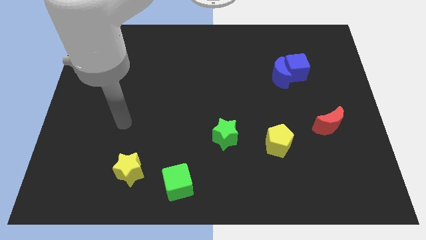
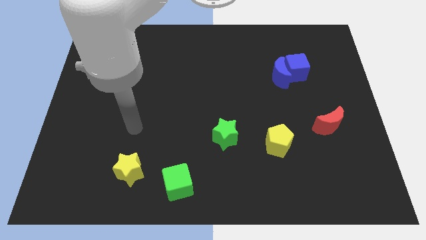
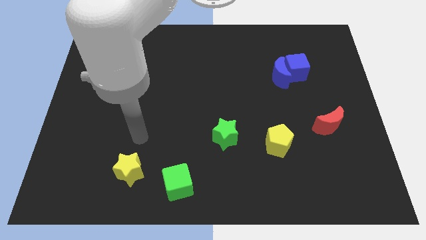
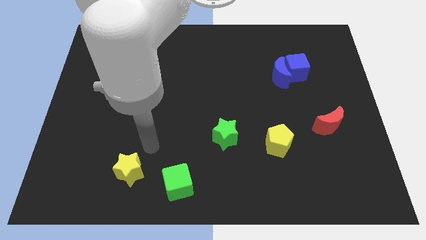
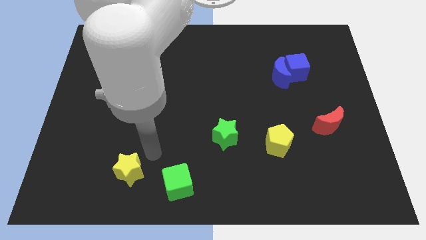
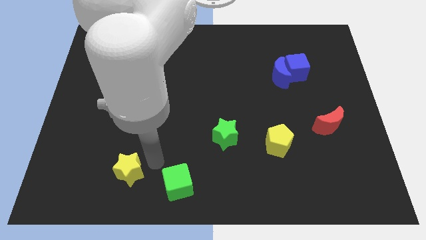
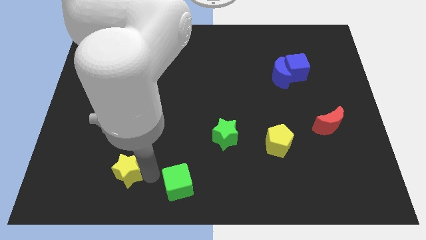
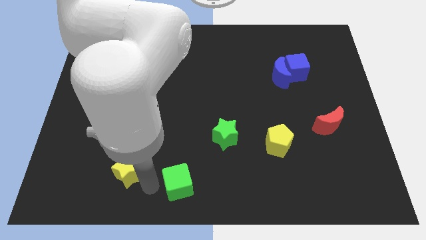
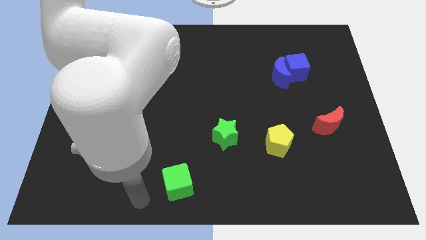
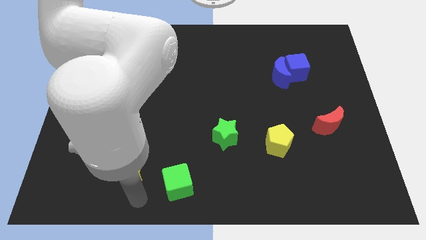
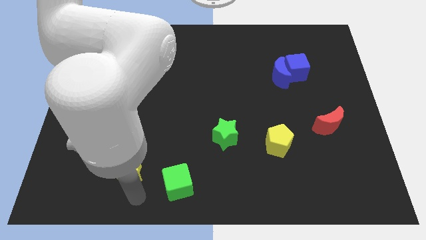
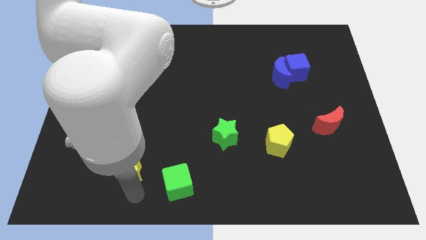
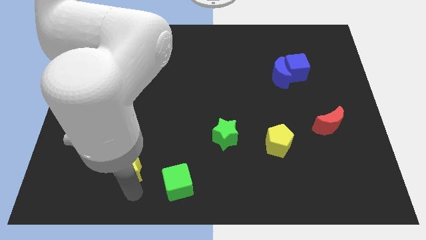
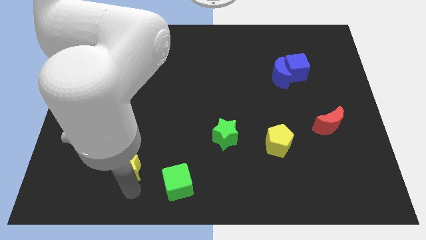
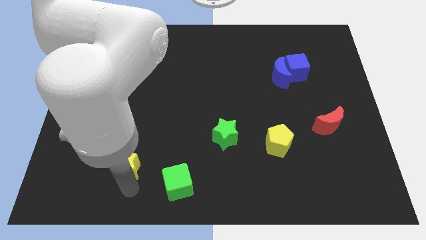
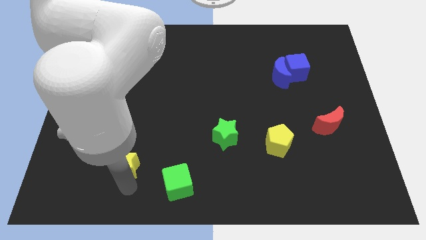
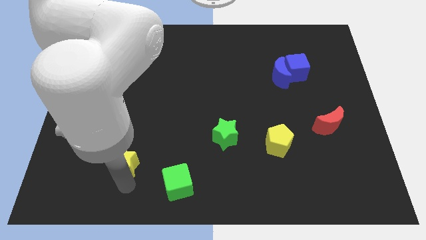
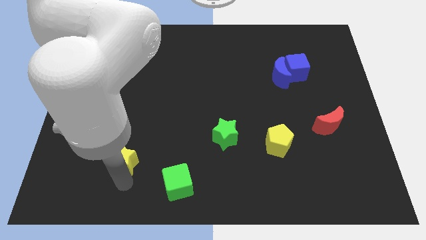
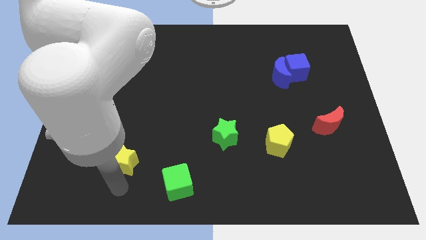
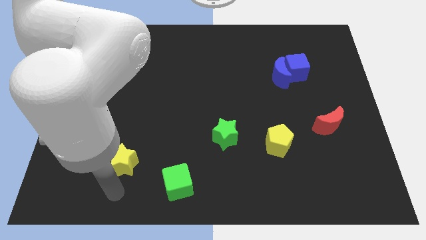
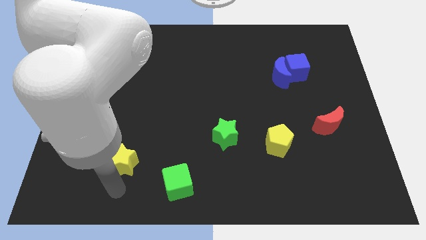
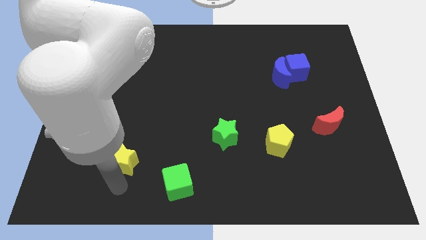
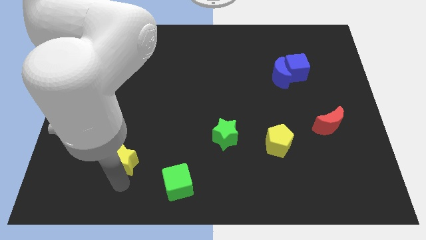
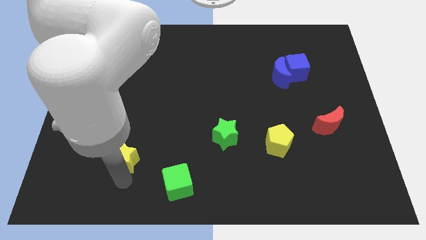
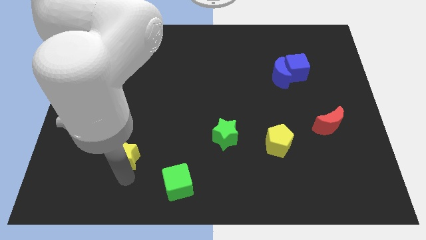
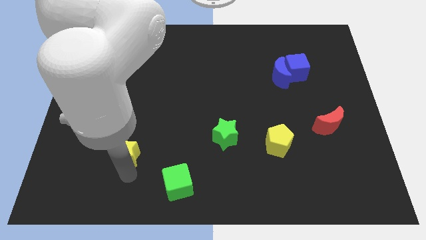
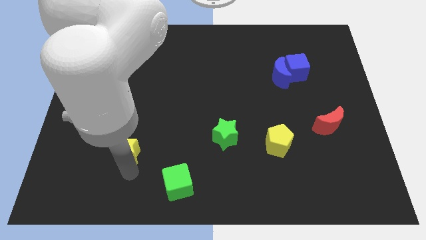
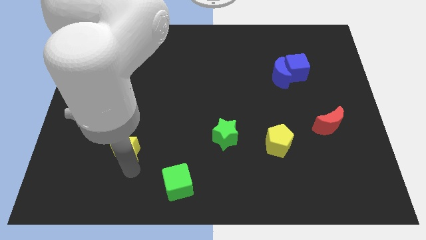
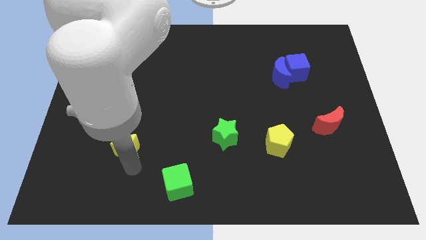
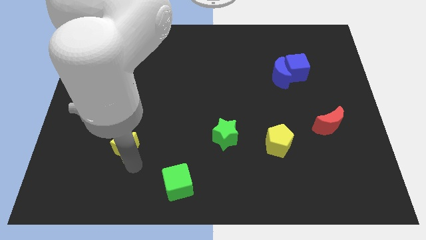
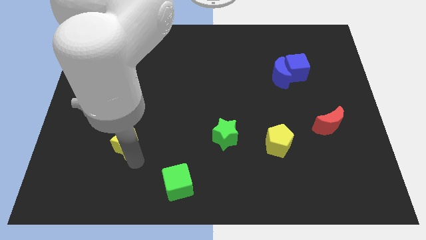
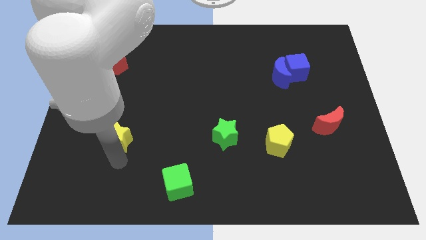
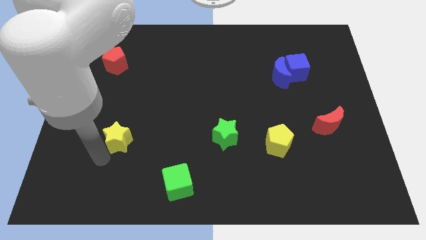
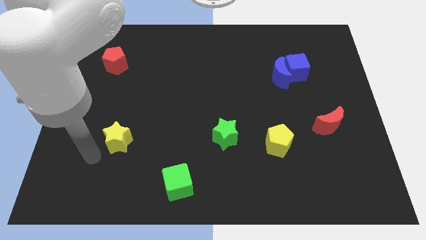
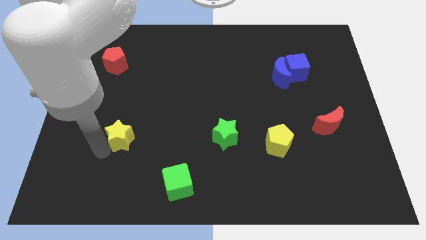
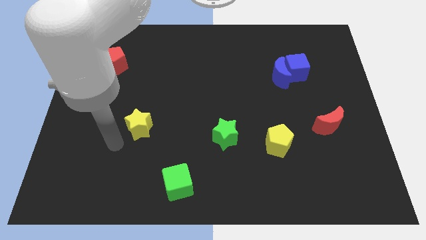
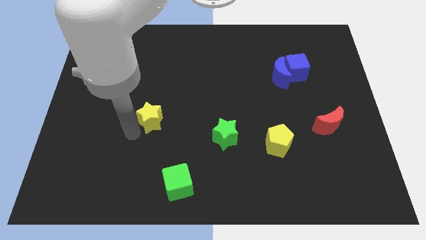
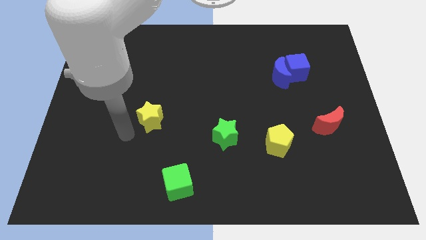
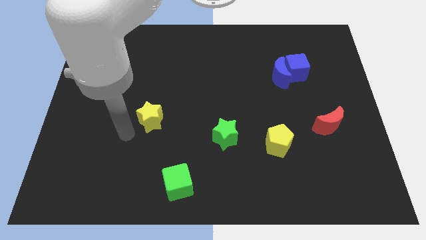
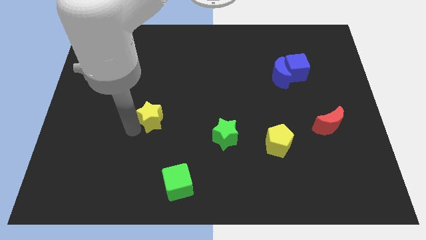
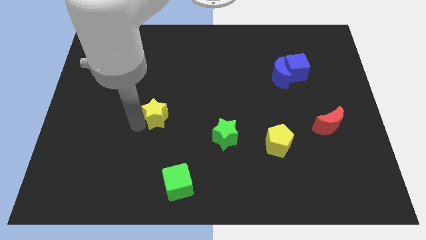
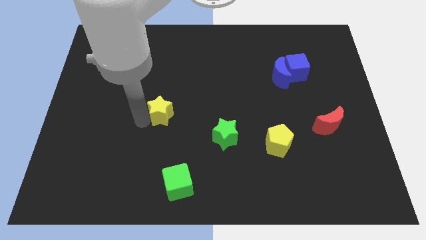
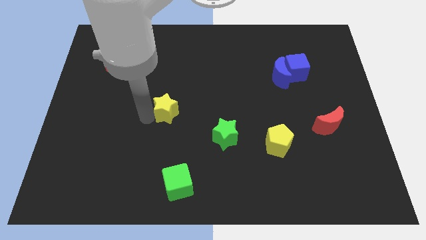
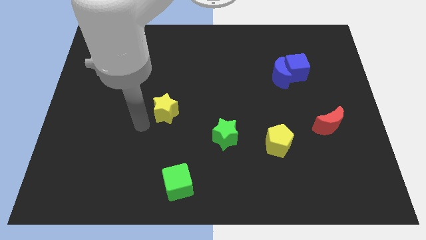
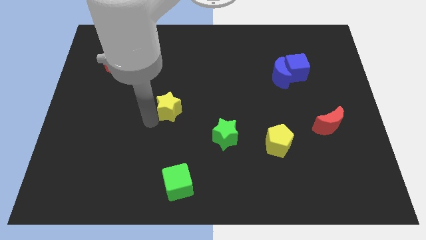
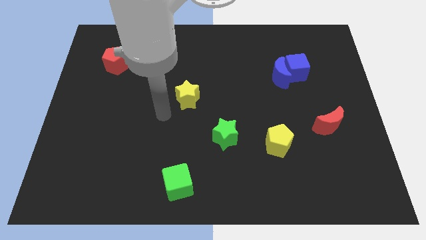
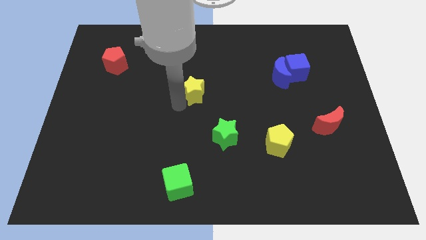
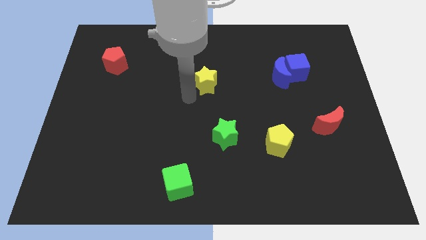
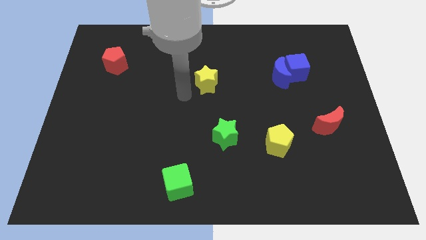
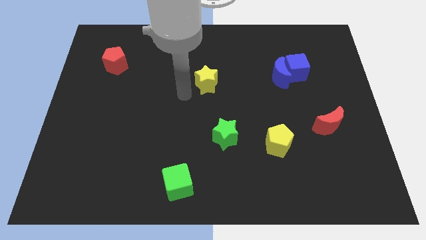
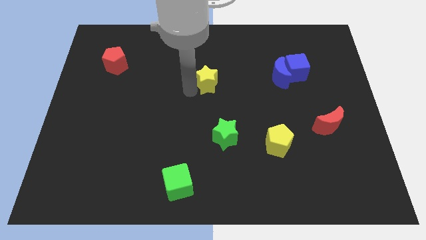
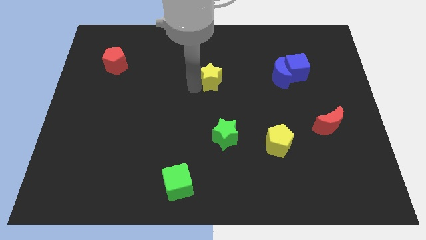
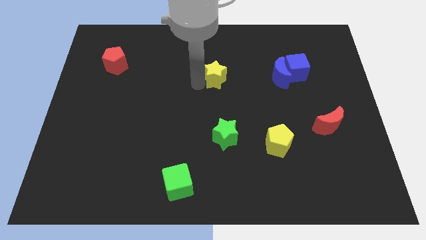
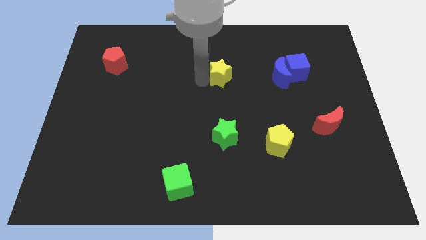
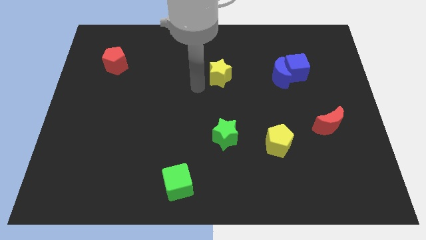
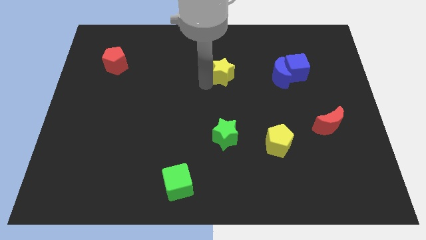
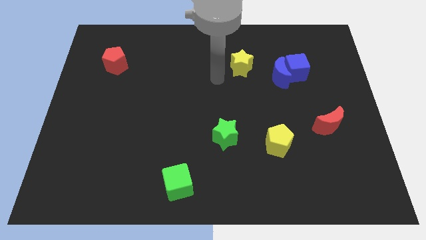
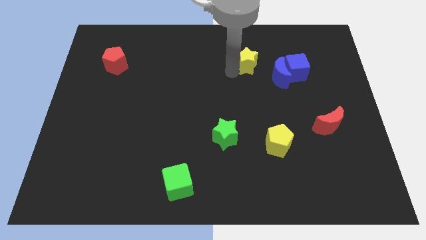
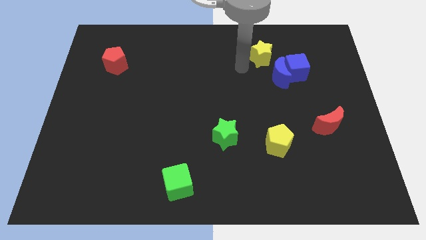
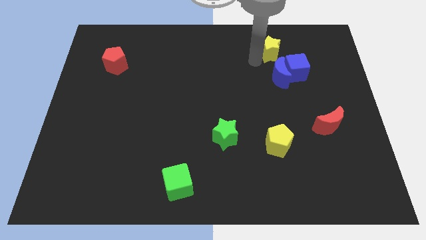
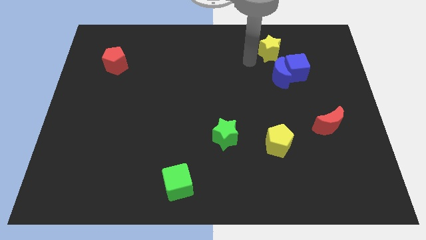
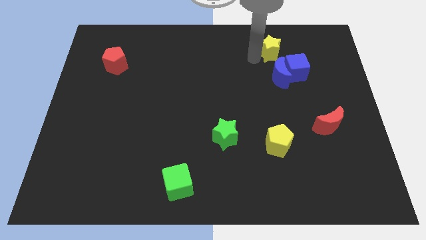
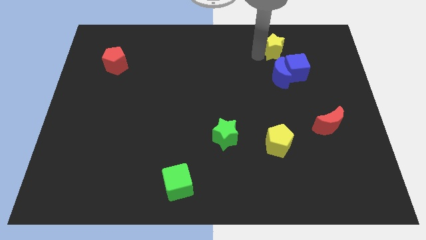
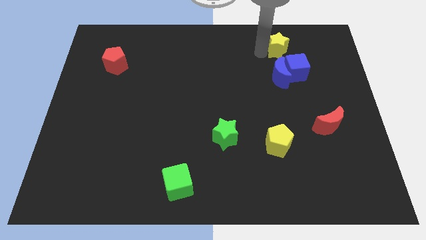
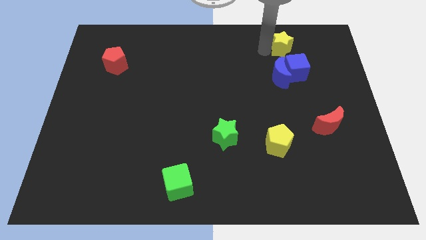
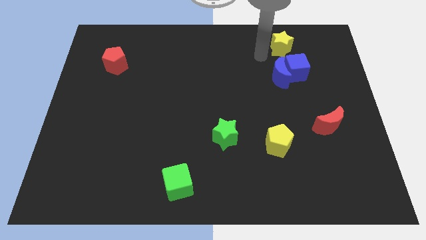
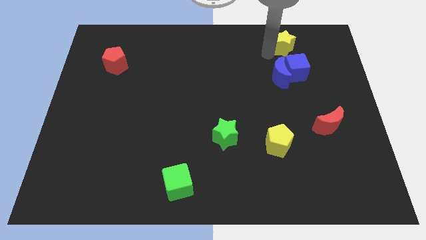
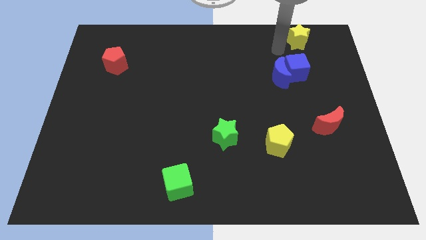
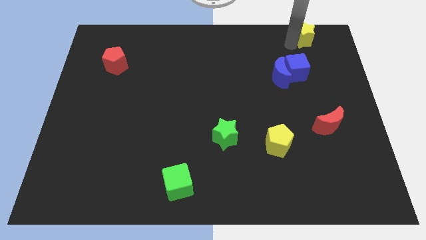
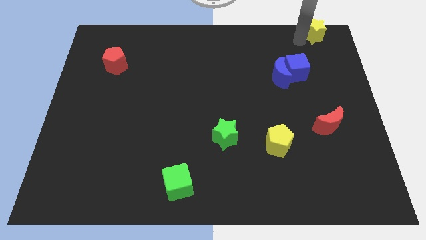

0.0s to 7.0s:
push the yellow star to the top right
